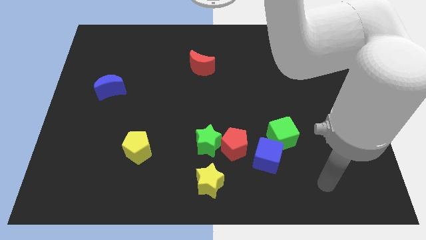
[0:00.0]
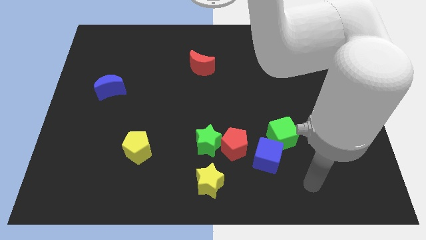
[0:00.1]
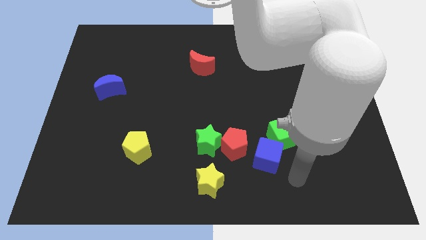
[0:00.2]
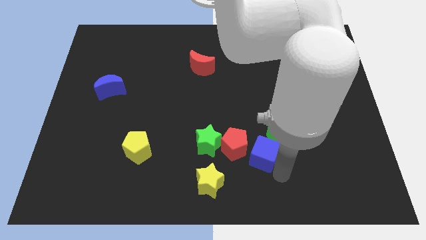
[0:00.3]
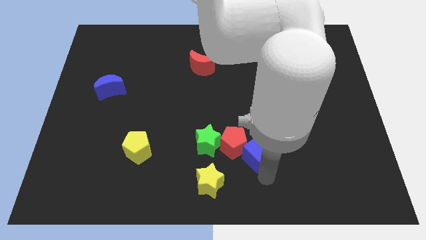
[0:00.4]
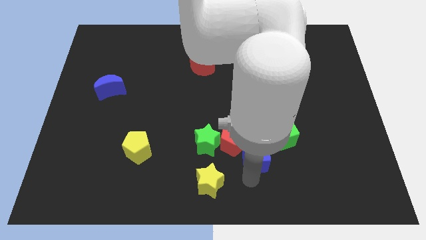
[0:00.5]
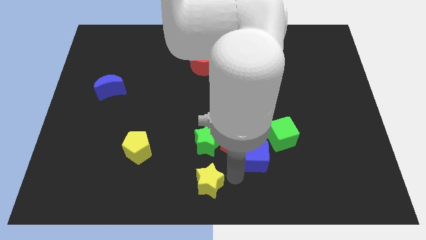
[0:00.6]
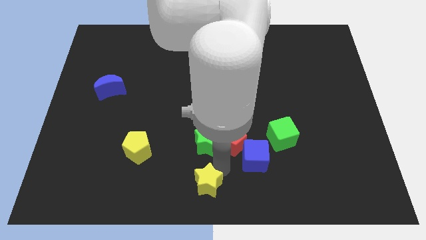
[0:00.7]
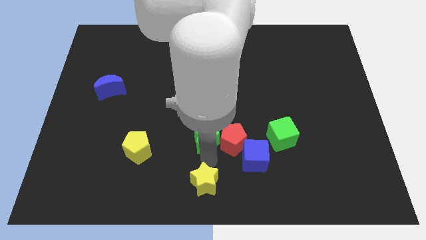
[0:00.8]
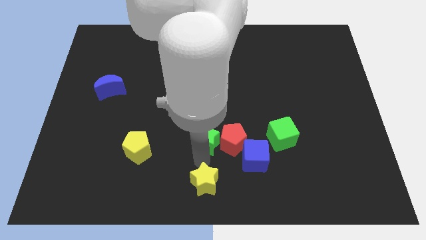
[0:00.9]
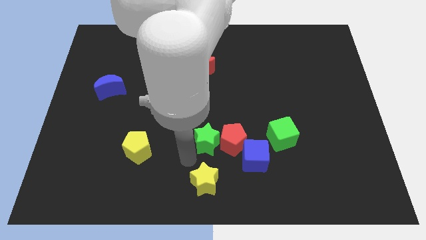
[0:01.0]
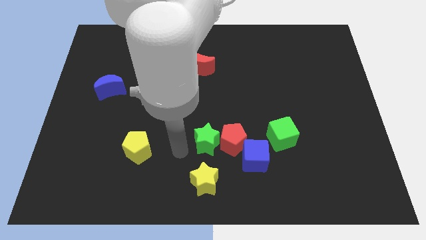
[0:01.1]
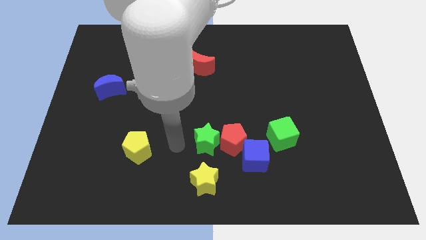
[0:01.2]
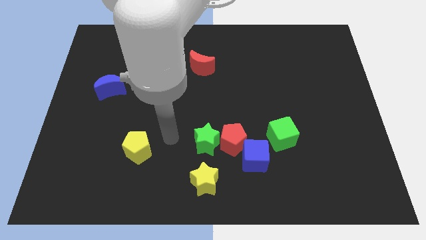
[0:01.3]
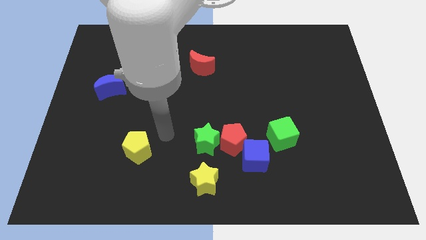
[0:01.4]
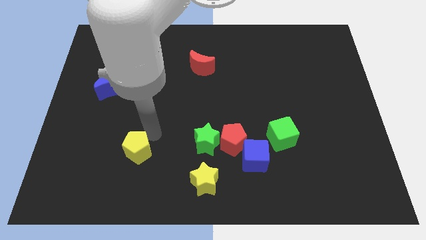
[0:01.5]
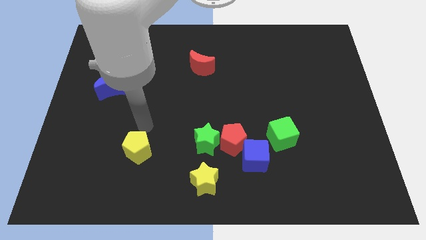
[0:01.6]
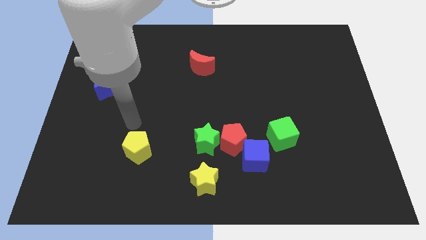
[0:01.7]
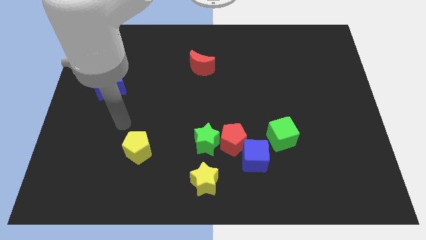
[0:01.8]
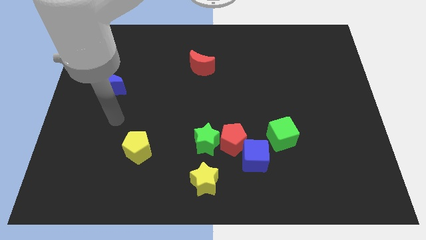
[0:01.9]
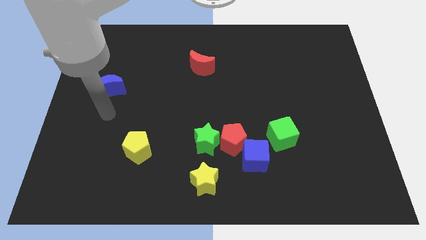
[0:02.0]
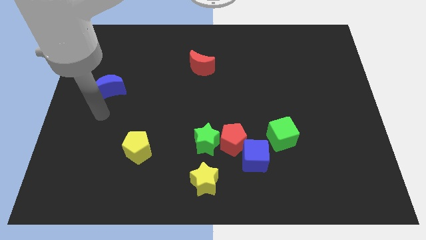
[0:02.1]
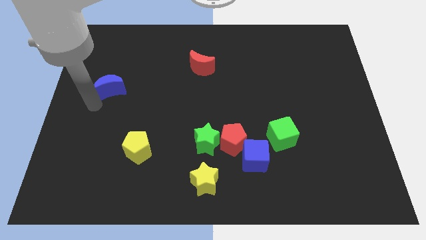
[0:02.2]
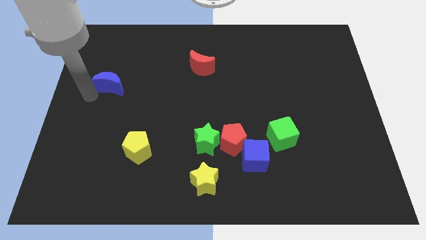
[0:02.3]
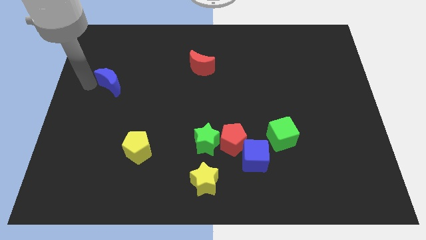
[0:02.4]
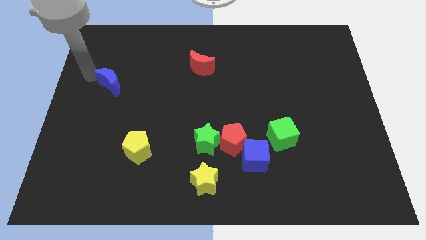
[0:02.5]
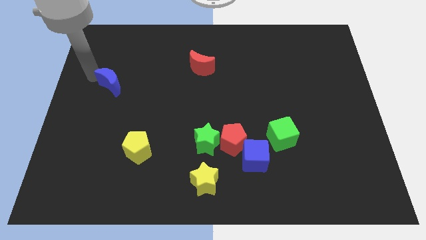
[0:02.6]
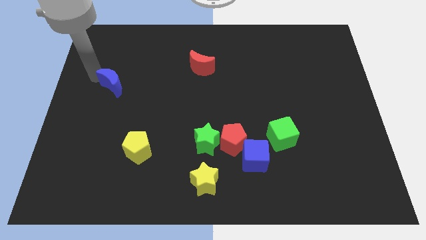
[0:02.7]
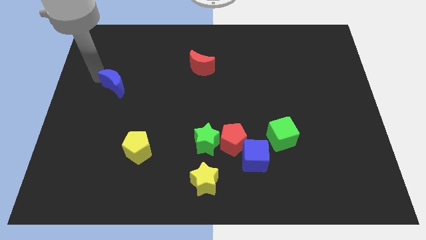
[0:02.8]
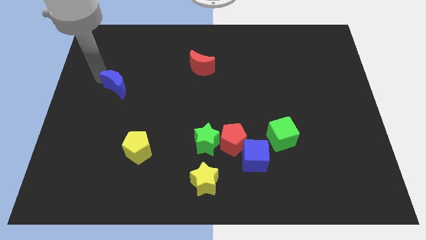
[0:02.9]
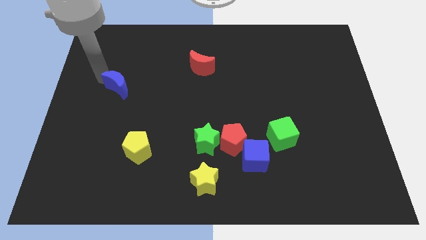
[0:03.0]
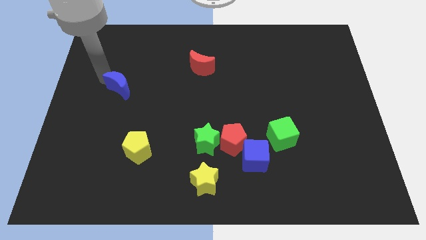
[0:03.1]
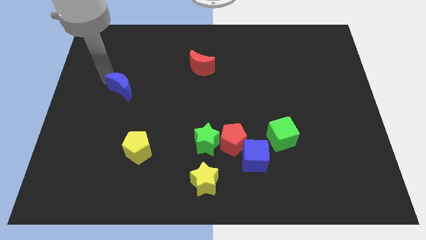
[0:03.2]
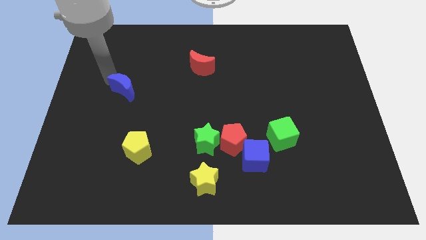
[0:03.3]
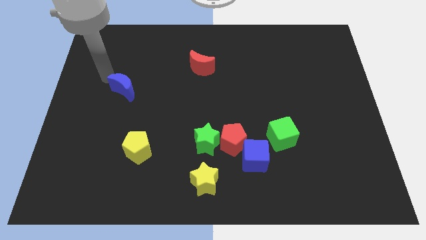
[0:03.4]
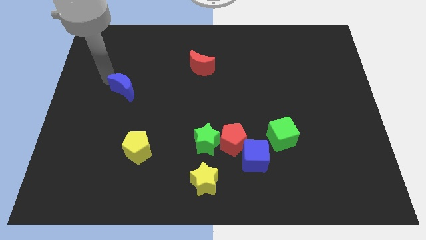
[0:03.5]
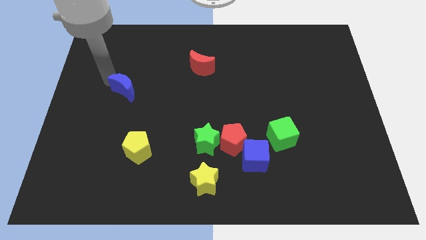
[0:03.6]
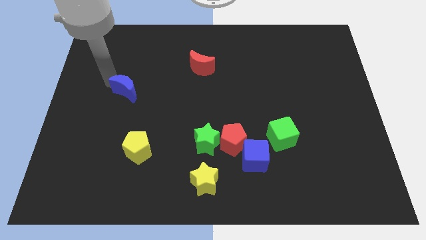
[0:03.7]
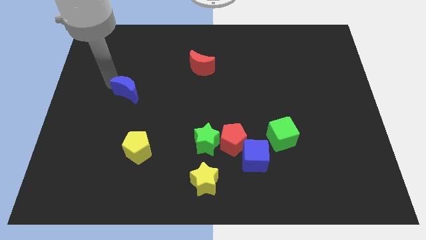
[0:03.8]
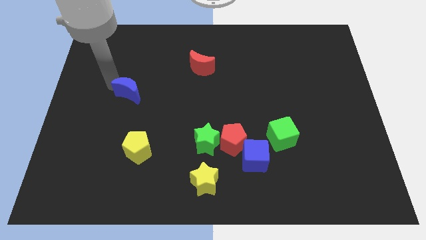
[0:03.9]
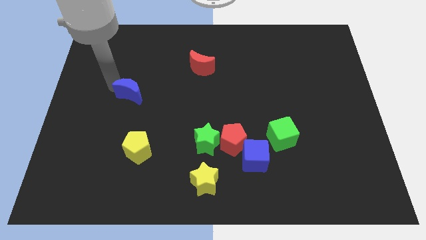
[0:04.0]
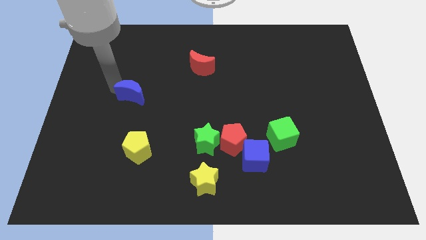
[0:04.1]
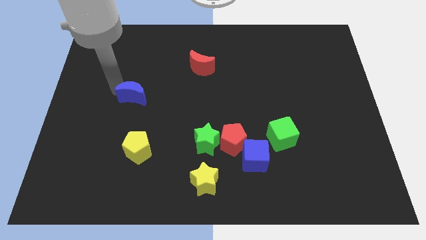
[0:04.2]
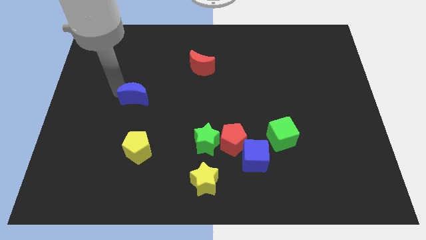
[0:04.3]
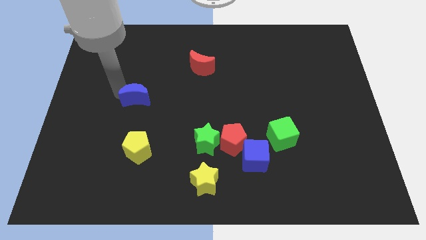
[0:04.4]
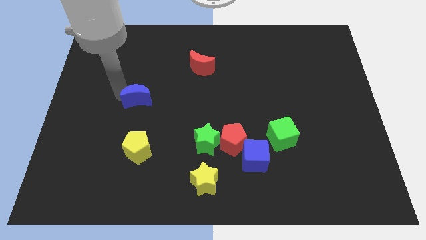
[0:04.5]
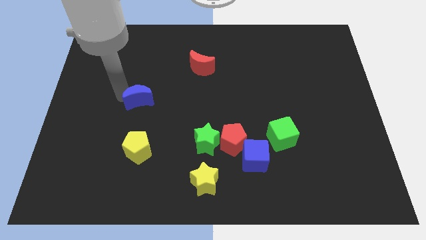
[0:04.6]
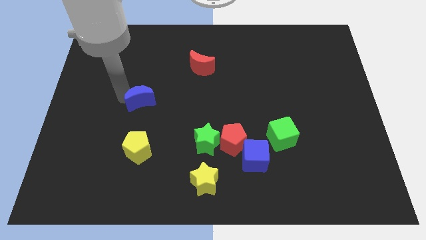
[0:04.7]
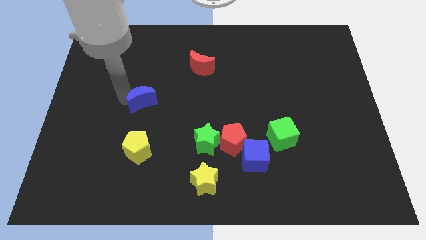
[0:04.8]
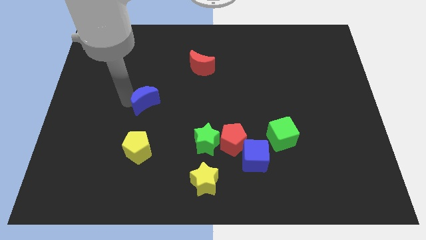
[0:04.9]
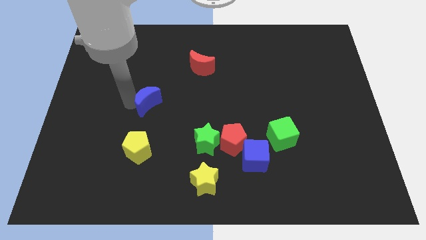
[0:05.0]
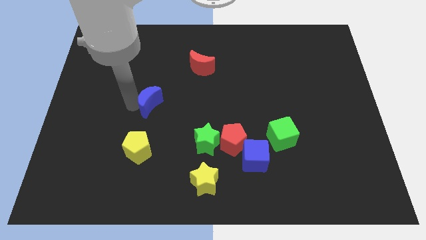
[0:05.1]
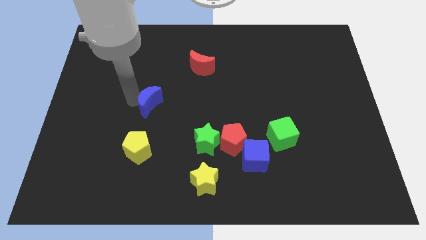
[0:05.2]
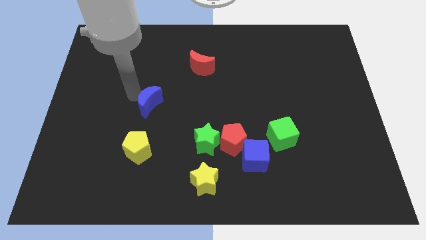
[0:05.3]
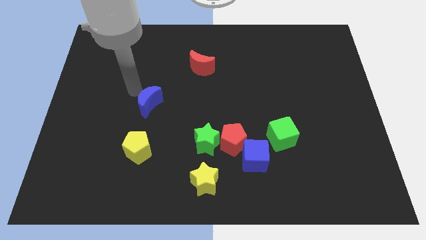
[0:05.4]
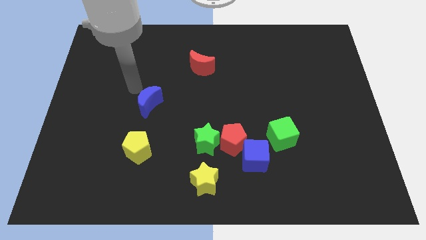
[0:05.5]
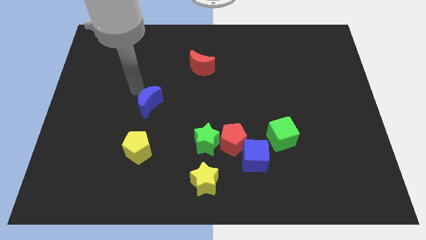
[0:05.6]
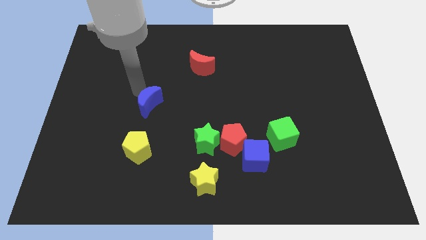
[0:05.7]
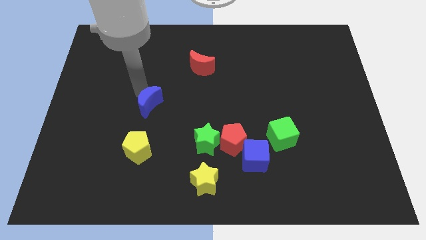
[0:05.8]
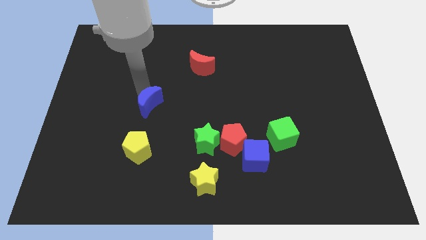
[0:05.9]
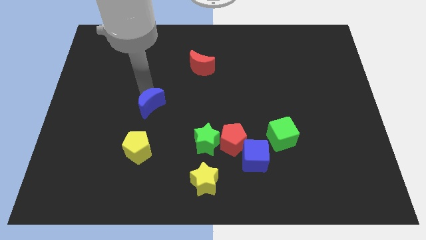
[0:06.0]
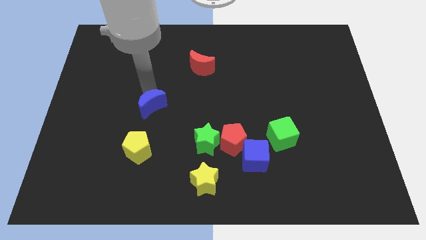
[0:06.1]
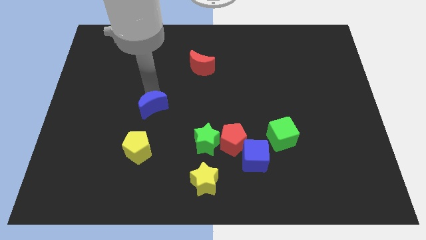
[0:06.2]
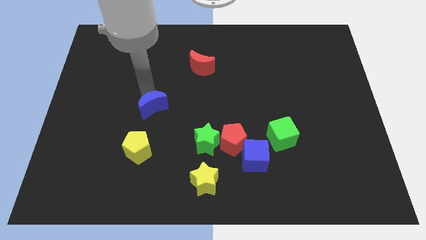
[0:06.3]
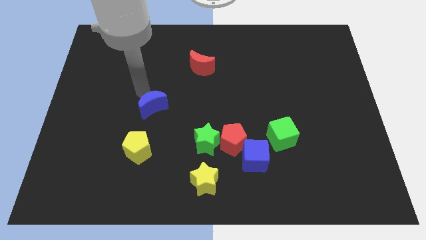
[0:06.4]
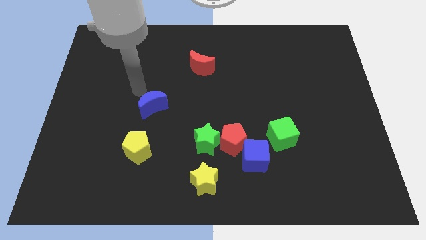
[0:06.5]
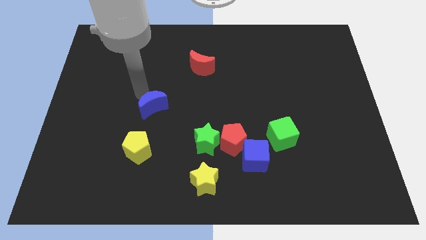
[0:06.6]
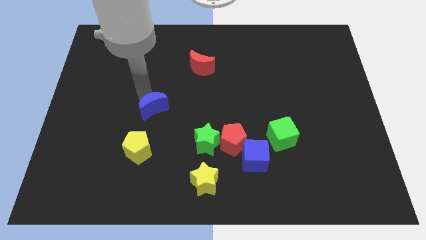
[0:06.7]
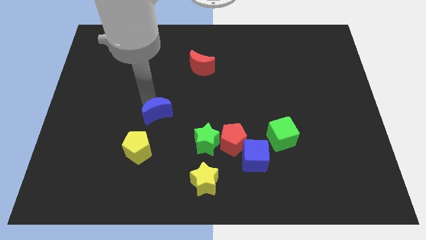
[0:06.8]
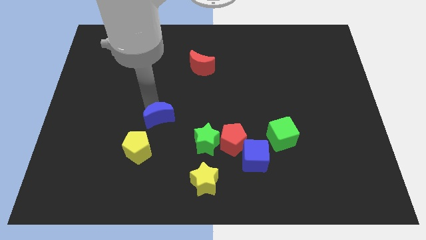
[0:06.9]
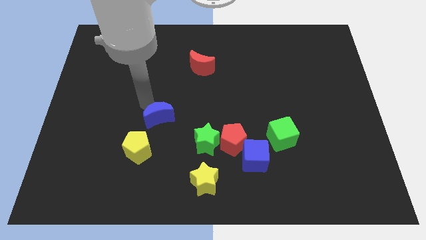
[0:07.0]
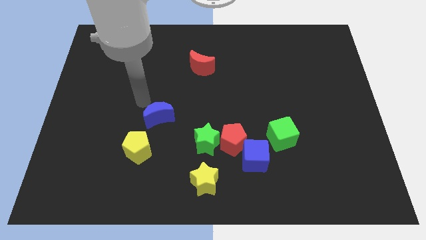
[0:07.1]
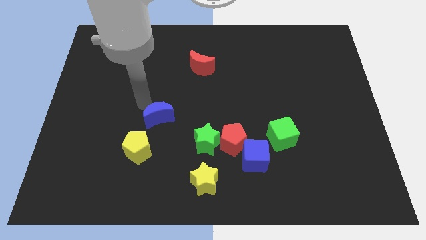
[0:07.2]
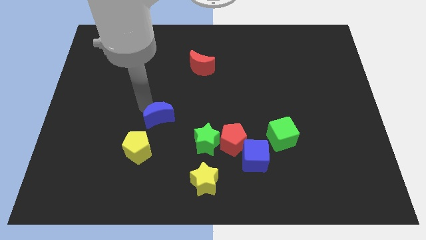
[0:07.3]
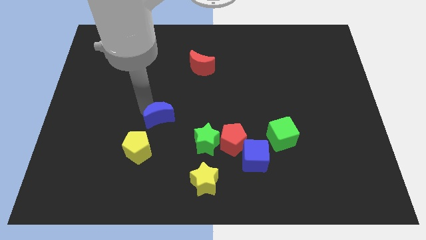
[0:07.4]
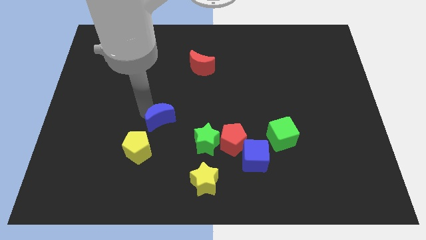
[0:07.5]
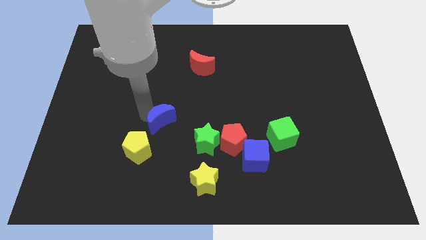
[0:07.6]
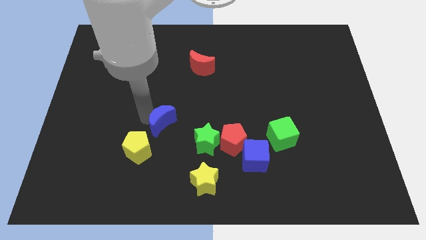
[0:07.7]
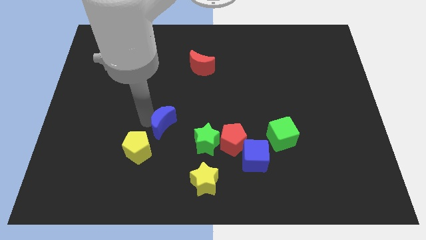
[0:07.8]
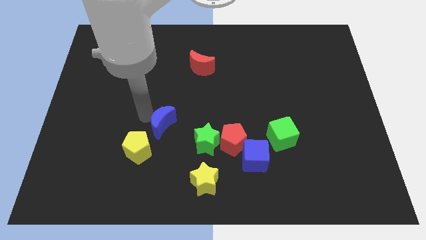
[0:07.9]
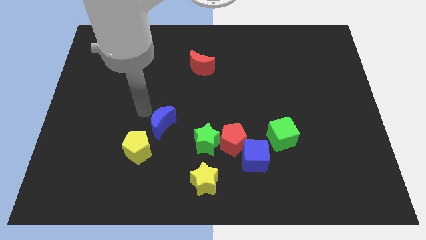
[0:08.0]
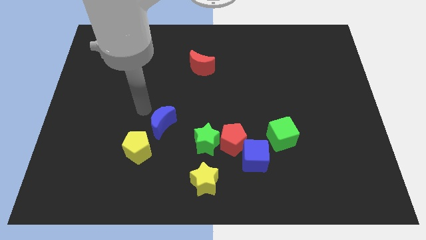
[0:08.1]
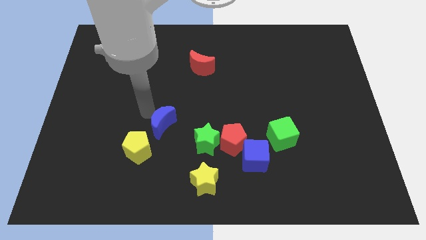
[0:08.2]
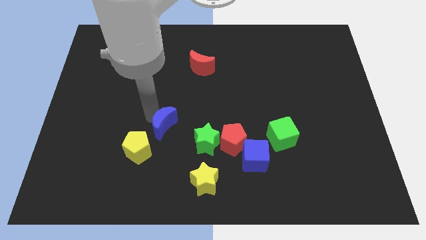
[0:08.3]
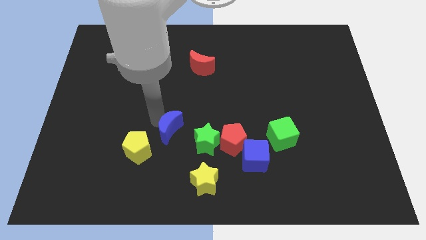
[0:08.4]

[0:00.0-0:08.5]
slide the blue moon just left of the red pentagon
